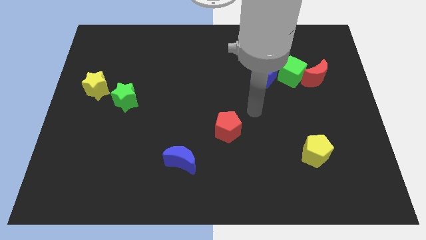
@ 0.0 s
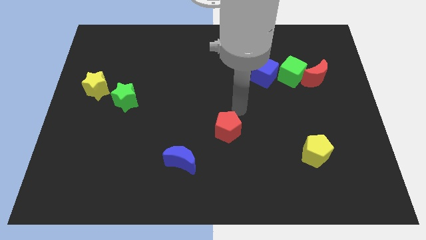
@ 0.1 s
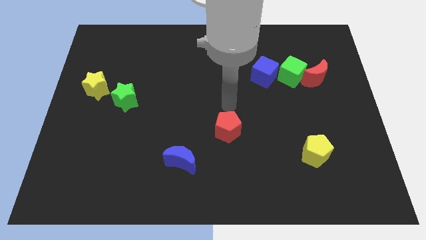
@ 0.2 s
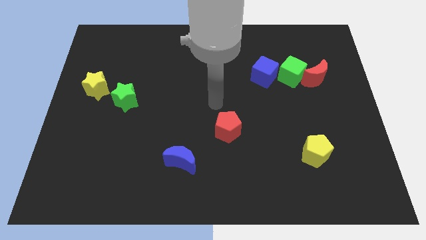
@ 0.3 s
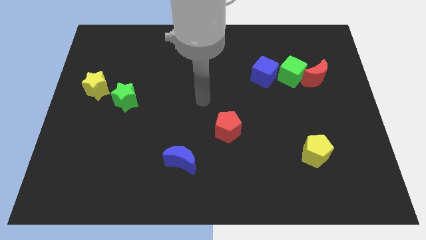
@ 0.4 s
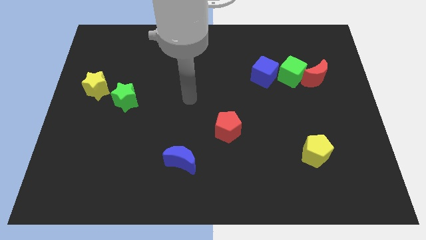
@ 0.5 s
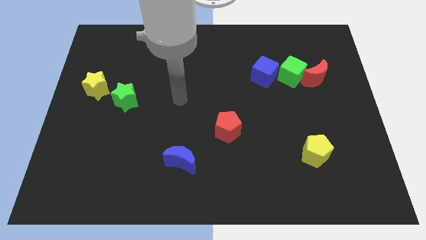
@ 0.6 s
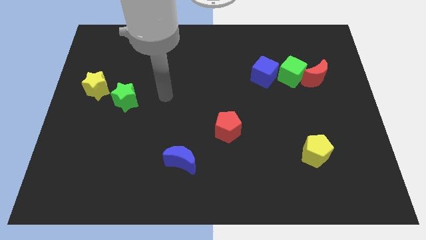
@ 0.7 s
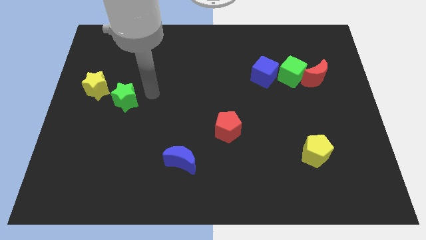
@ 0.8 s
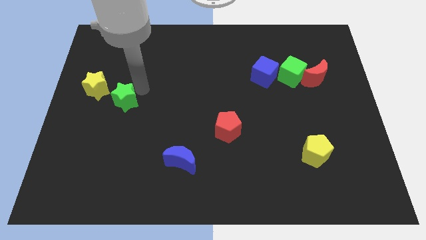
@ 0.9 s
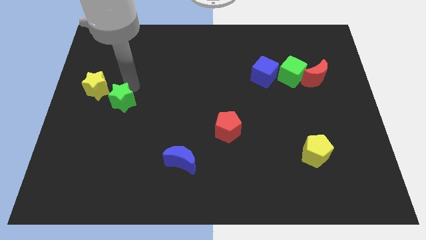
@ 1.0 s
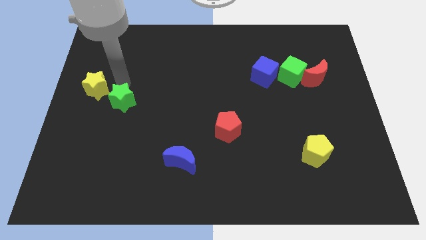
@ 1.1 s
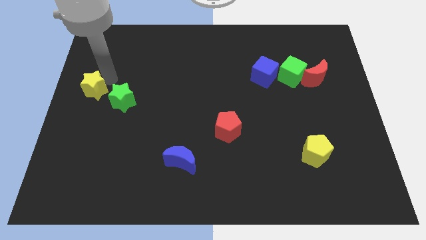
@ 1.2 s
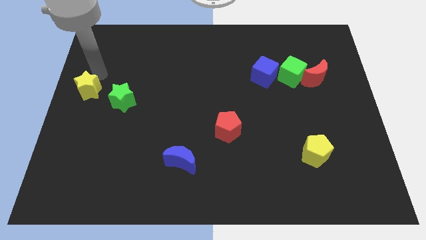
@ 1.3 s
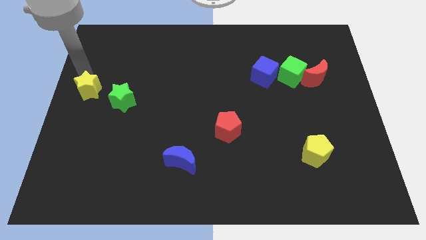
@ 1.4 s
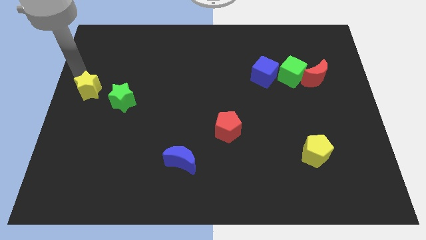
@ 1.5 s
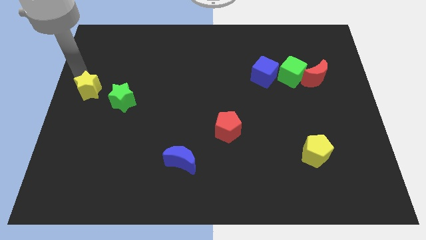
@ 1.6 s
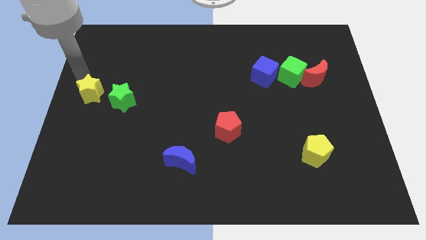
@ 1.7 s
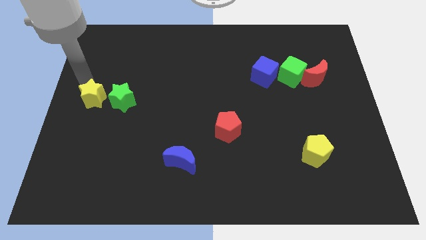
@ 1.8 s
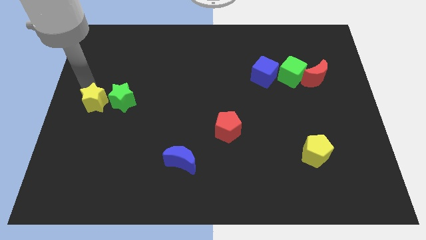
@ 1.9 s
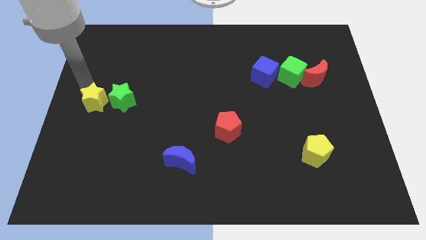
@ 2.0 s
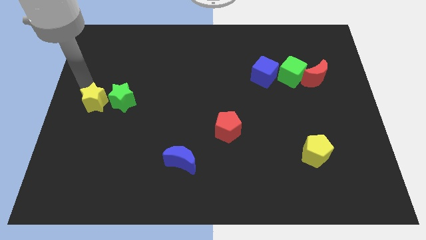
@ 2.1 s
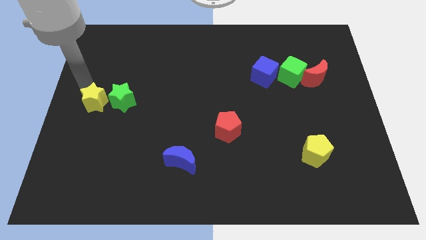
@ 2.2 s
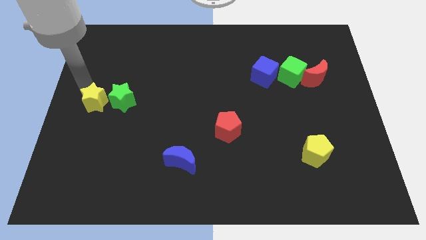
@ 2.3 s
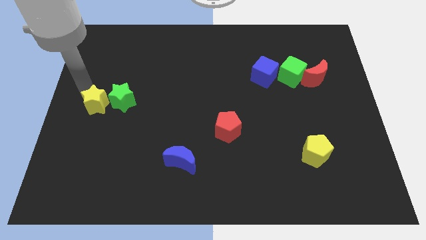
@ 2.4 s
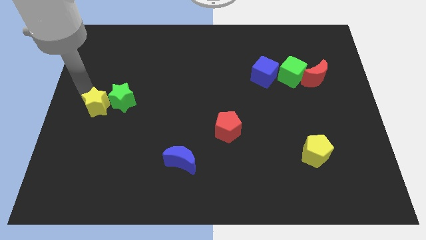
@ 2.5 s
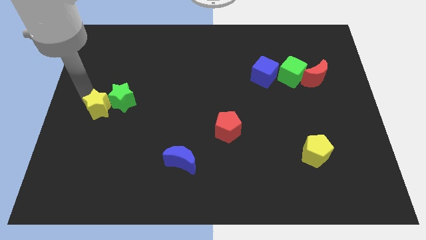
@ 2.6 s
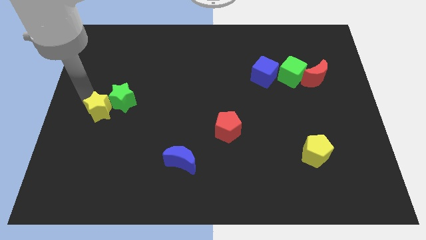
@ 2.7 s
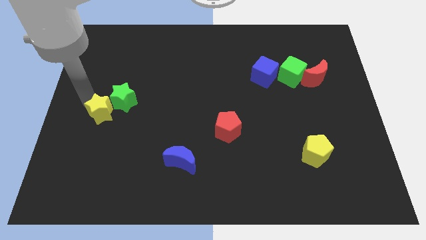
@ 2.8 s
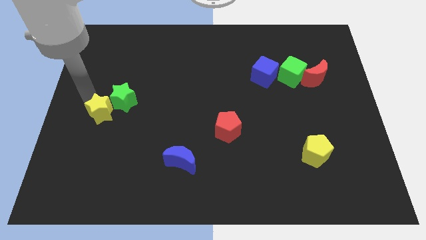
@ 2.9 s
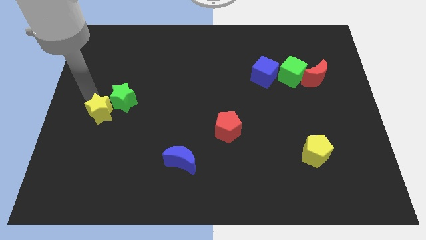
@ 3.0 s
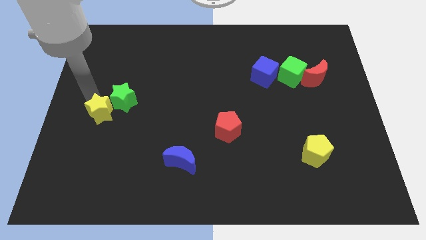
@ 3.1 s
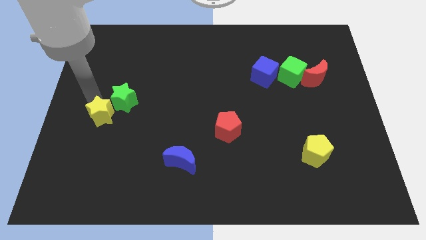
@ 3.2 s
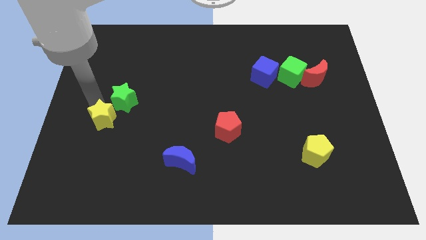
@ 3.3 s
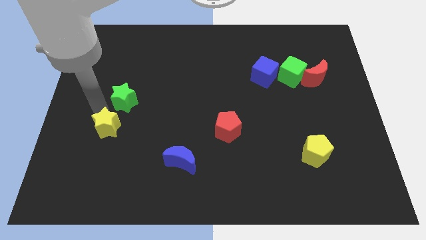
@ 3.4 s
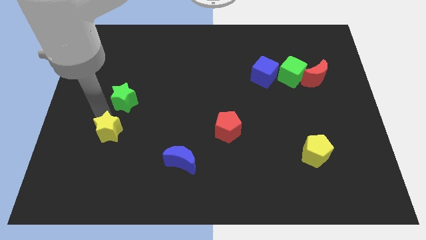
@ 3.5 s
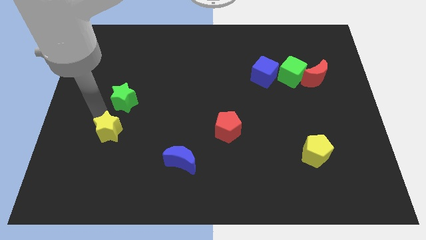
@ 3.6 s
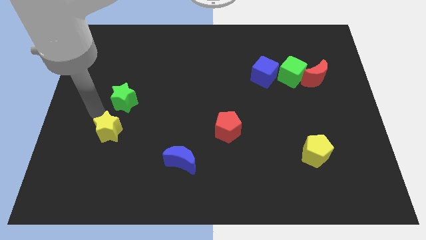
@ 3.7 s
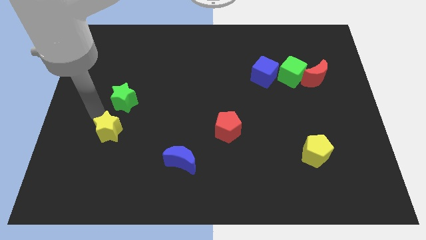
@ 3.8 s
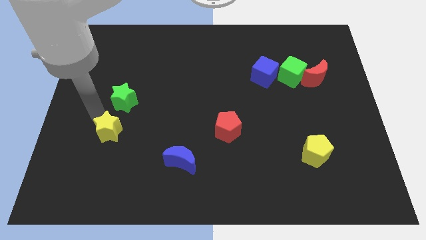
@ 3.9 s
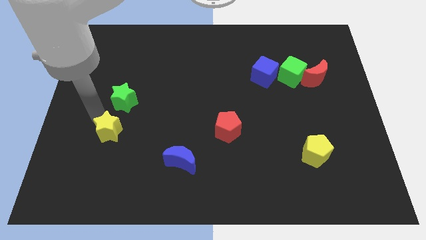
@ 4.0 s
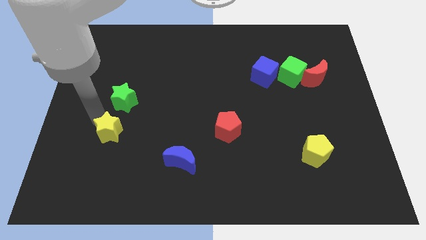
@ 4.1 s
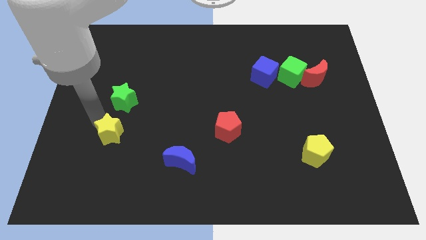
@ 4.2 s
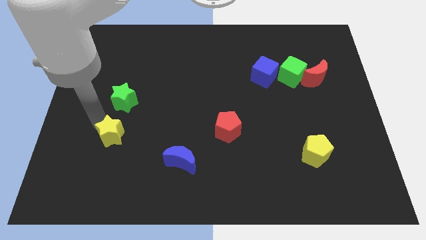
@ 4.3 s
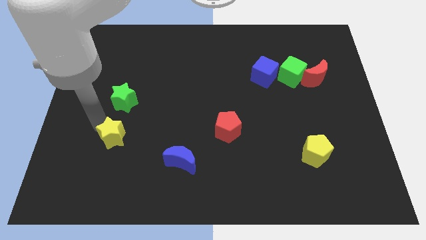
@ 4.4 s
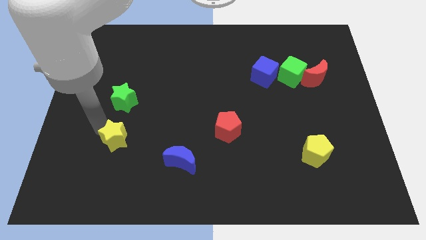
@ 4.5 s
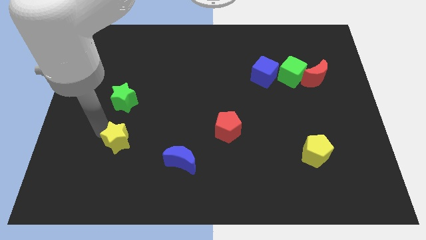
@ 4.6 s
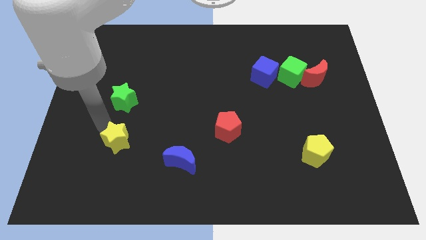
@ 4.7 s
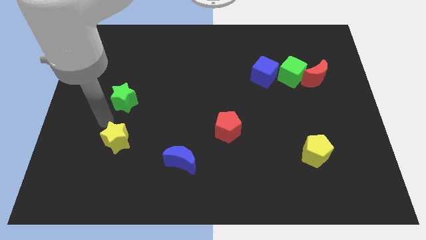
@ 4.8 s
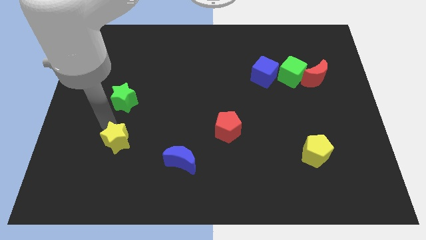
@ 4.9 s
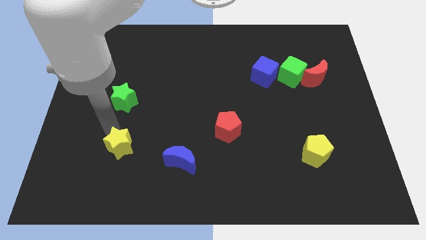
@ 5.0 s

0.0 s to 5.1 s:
slide the yellow star to the left side of the blue moon

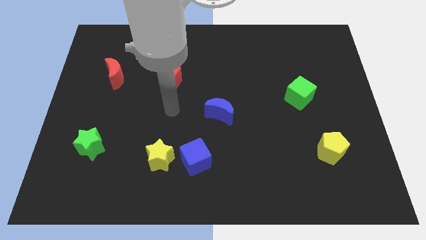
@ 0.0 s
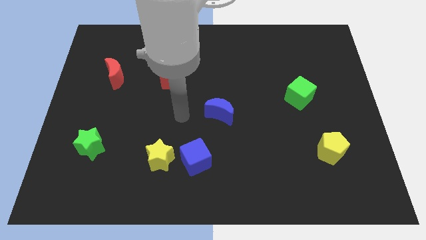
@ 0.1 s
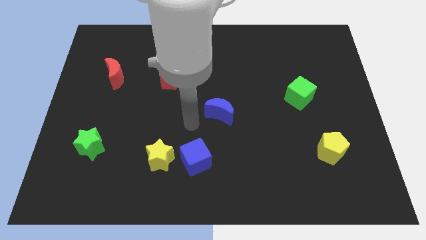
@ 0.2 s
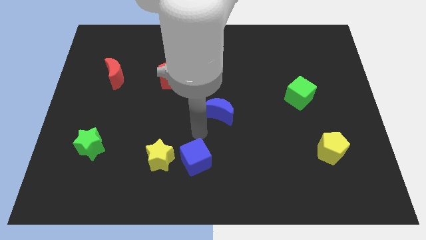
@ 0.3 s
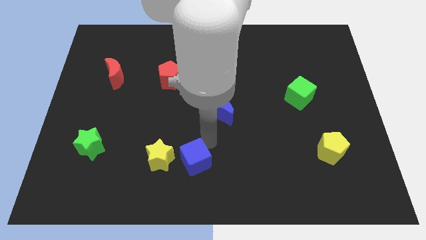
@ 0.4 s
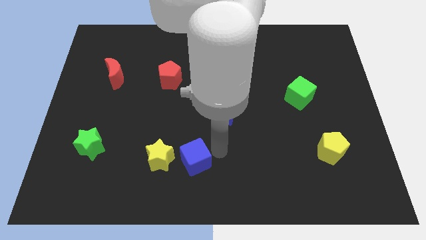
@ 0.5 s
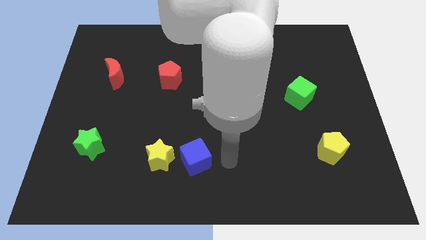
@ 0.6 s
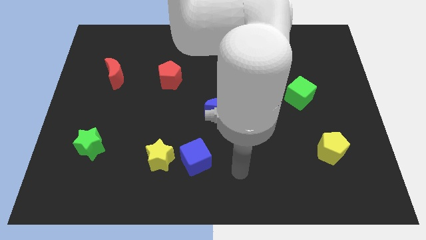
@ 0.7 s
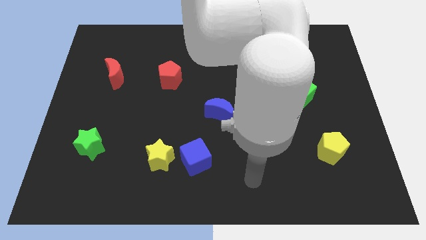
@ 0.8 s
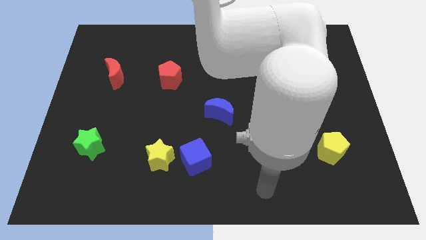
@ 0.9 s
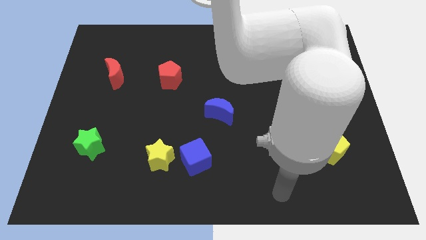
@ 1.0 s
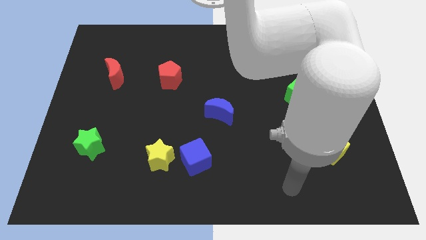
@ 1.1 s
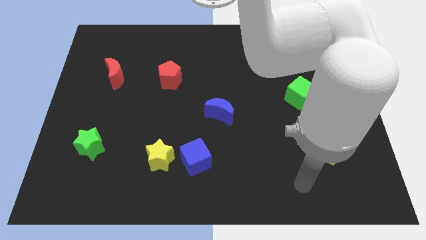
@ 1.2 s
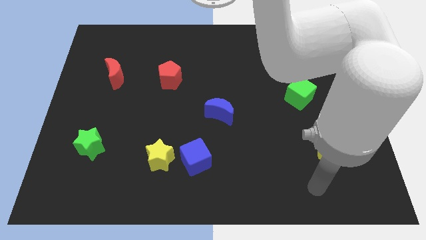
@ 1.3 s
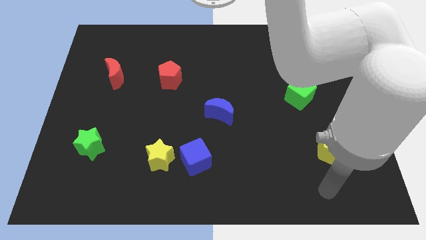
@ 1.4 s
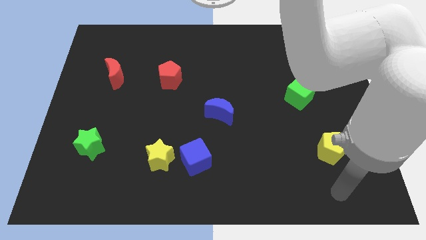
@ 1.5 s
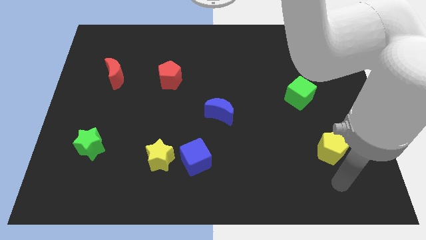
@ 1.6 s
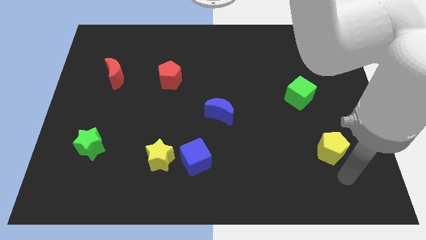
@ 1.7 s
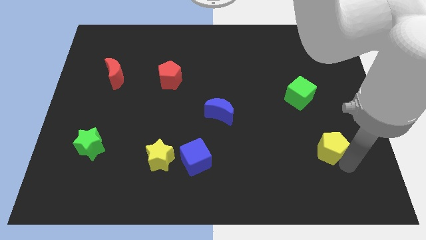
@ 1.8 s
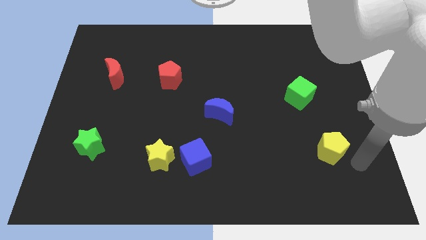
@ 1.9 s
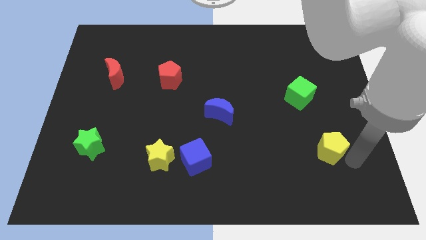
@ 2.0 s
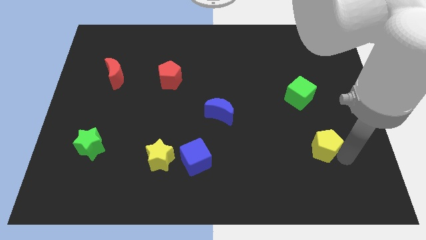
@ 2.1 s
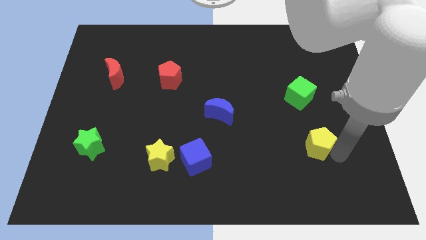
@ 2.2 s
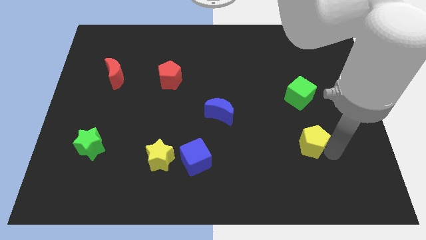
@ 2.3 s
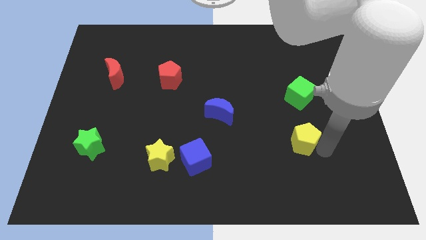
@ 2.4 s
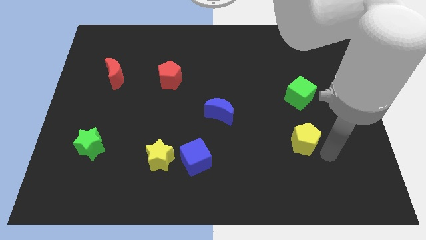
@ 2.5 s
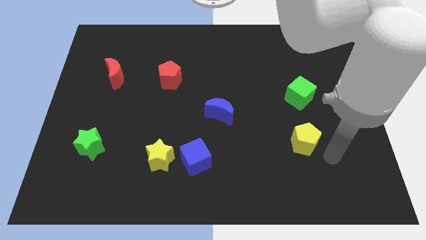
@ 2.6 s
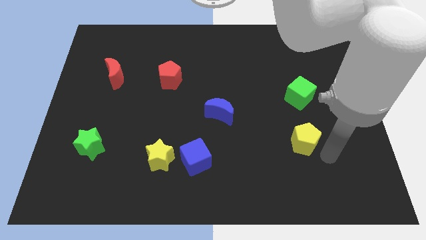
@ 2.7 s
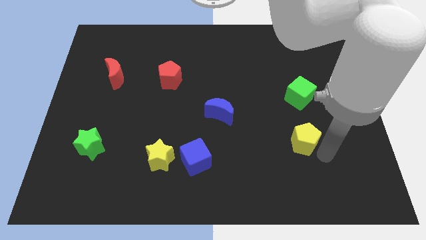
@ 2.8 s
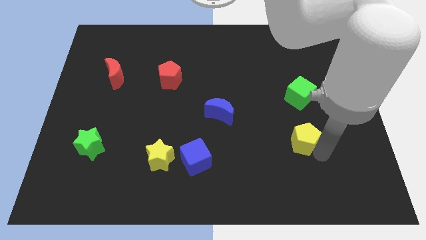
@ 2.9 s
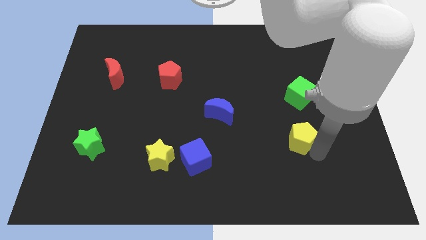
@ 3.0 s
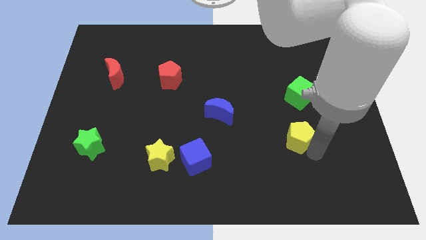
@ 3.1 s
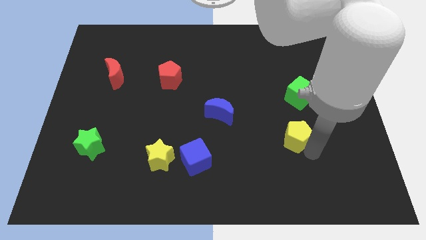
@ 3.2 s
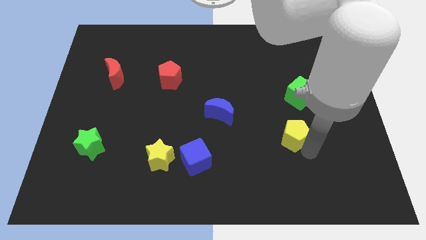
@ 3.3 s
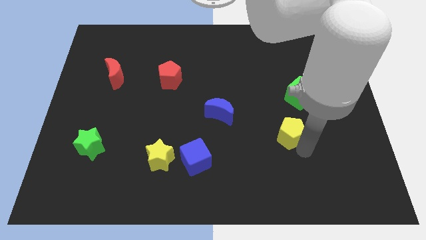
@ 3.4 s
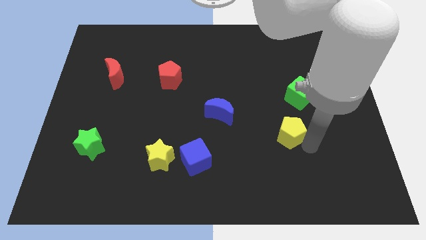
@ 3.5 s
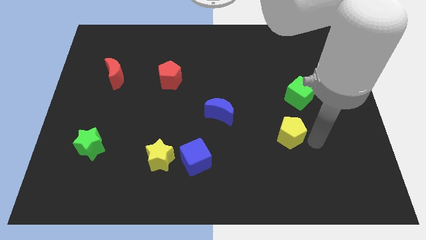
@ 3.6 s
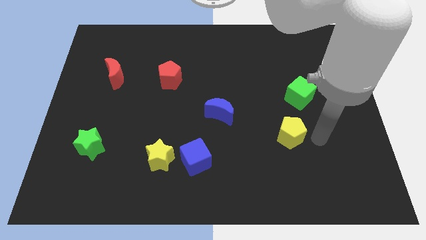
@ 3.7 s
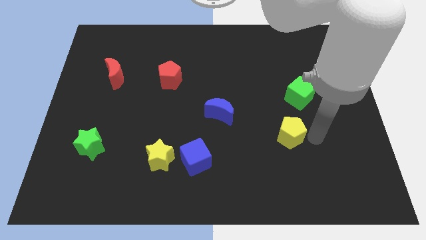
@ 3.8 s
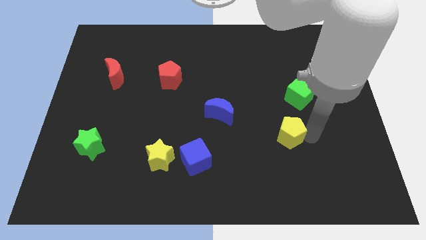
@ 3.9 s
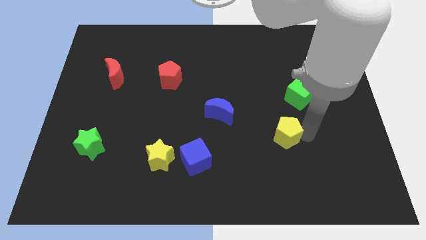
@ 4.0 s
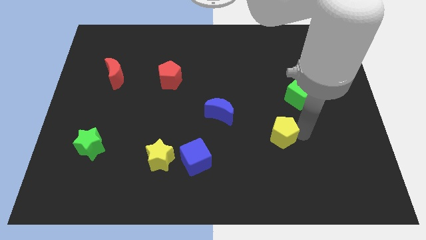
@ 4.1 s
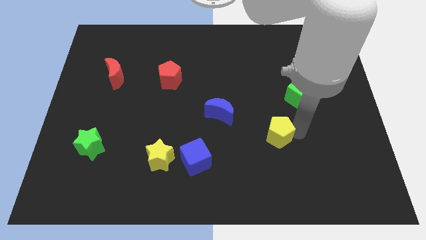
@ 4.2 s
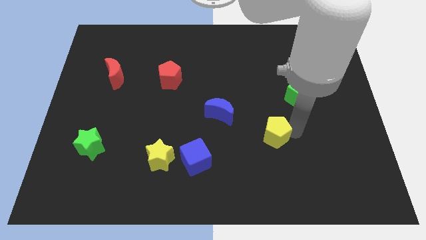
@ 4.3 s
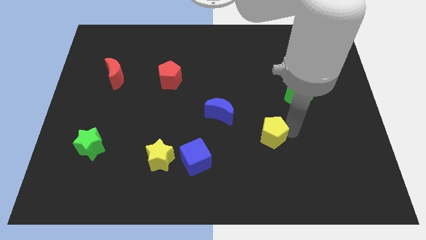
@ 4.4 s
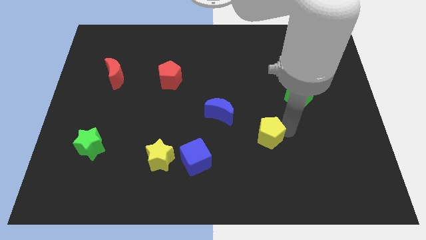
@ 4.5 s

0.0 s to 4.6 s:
move the yellow pentagon diagonally down and to the right of the blue moon
